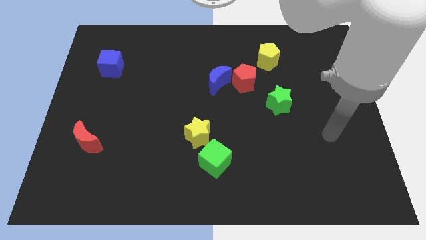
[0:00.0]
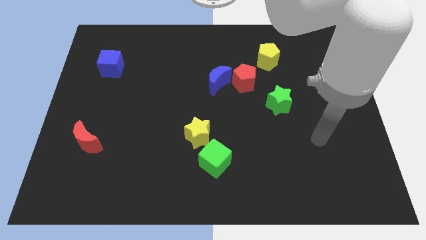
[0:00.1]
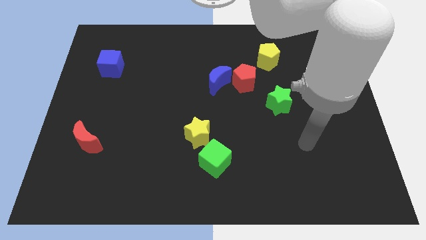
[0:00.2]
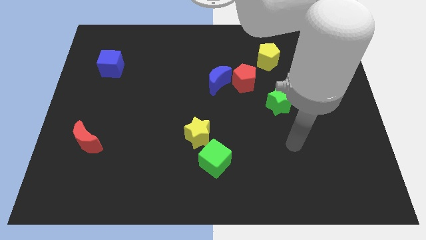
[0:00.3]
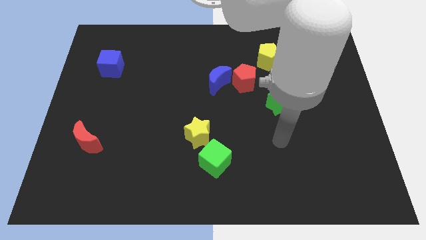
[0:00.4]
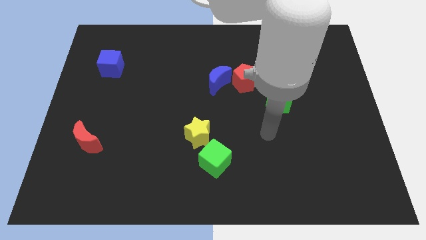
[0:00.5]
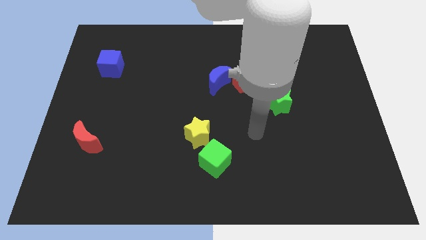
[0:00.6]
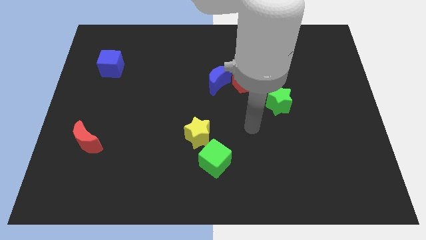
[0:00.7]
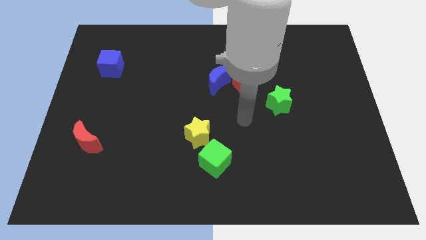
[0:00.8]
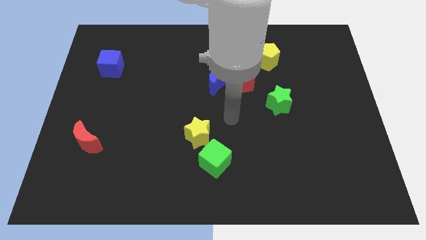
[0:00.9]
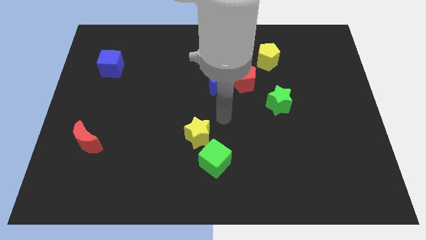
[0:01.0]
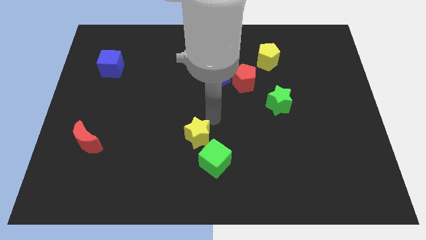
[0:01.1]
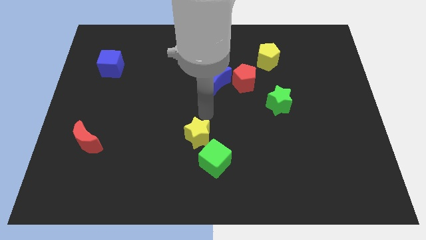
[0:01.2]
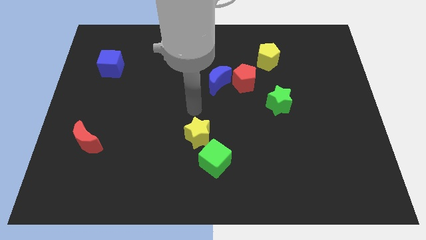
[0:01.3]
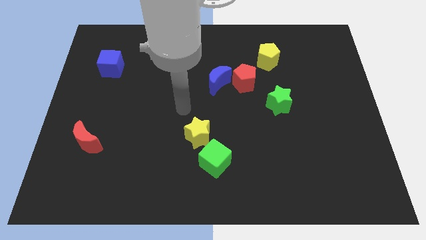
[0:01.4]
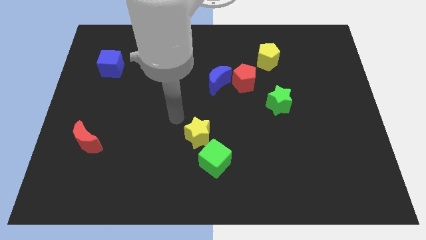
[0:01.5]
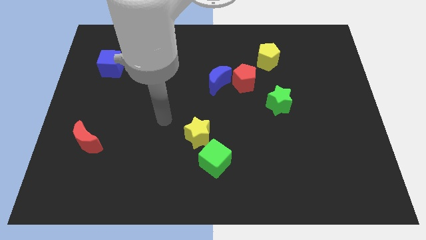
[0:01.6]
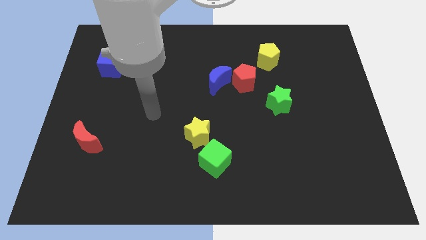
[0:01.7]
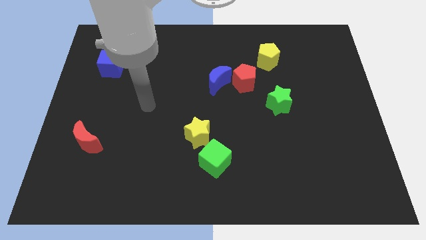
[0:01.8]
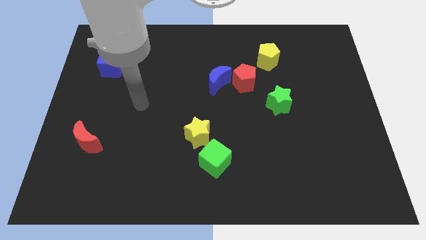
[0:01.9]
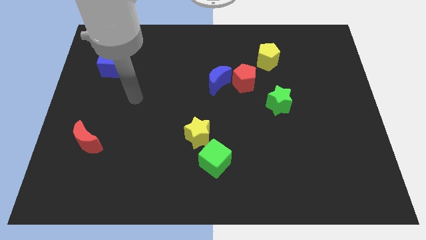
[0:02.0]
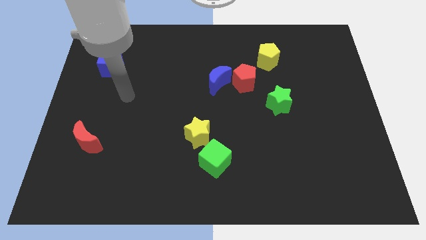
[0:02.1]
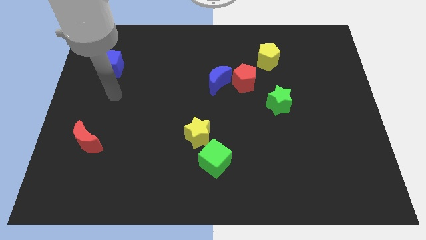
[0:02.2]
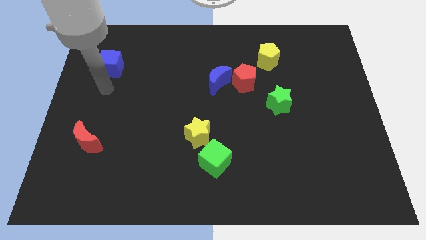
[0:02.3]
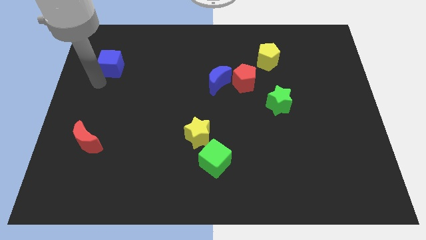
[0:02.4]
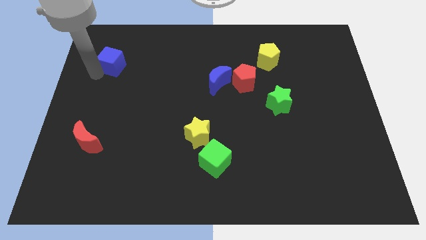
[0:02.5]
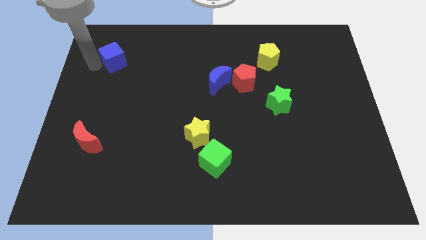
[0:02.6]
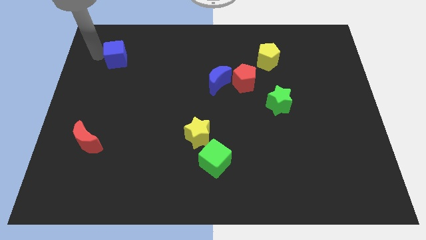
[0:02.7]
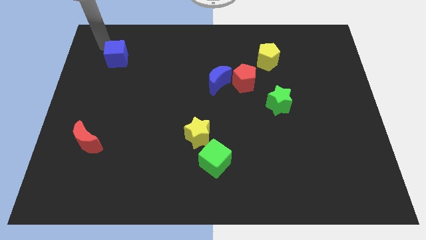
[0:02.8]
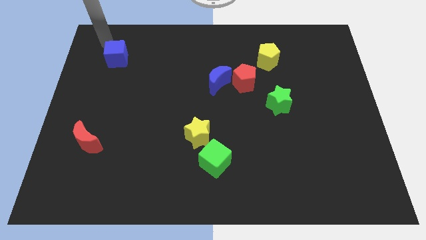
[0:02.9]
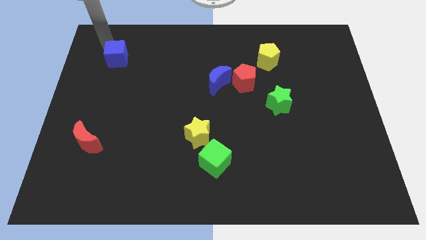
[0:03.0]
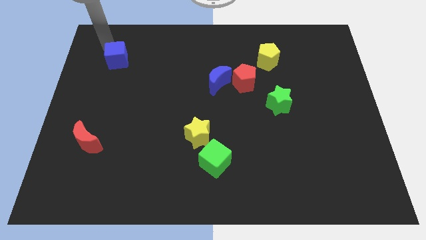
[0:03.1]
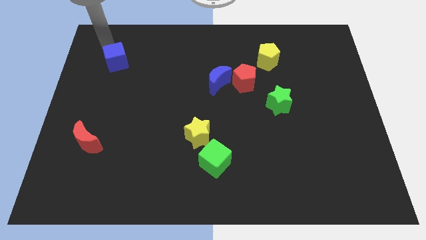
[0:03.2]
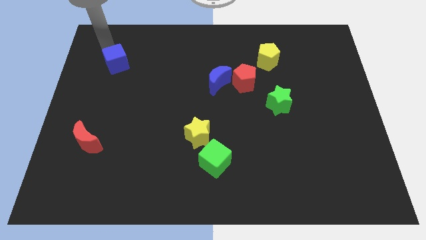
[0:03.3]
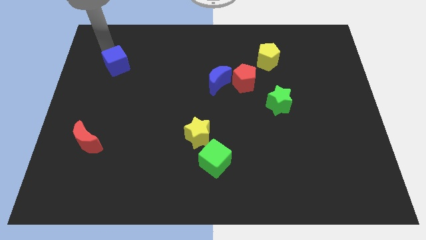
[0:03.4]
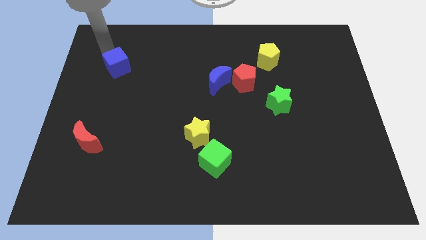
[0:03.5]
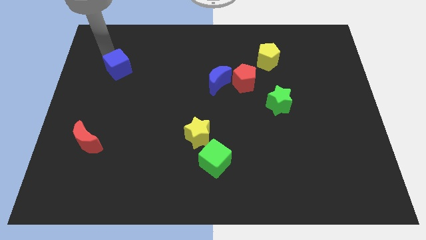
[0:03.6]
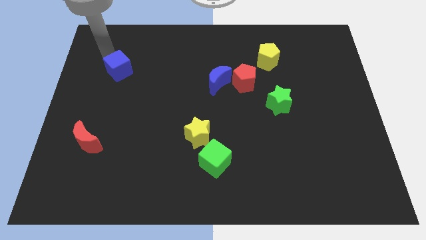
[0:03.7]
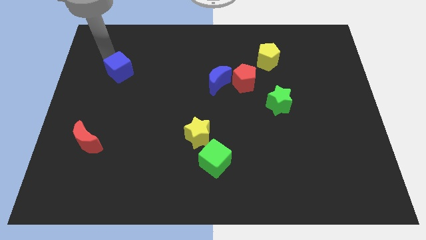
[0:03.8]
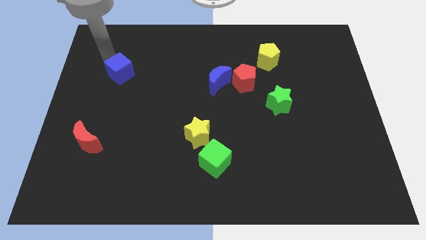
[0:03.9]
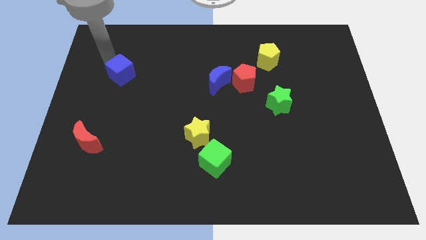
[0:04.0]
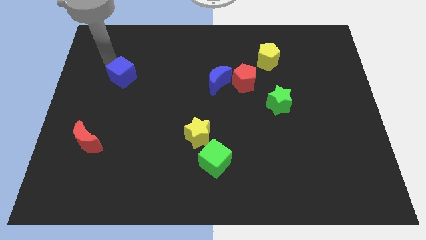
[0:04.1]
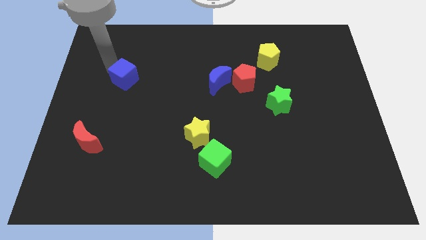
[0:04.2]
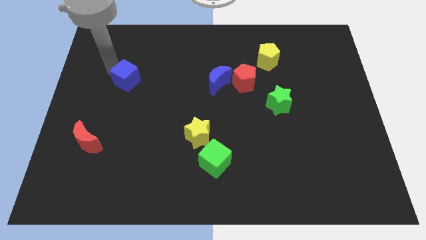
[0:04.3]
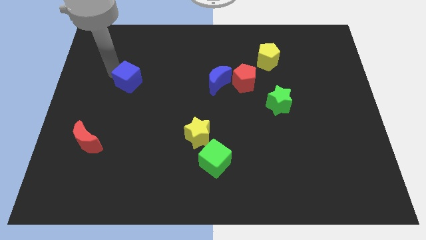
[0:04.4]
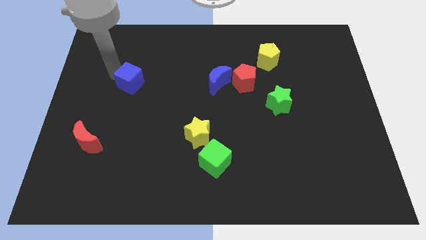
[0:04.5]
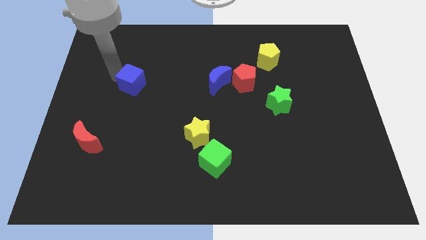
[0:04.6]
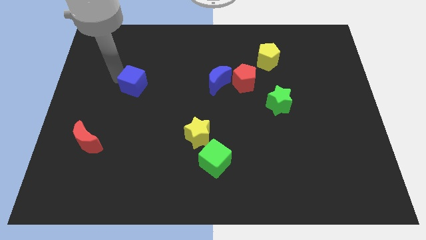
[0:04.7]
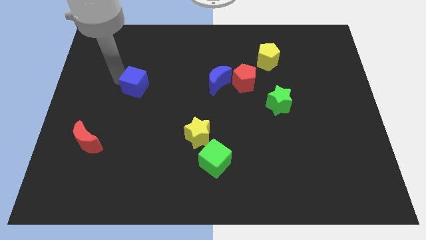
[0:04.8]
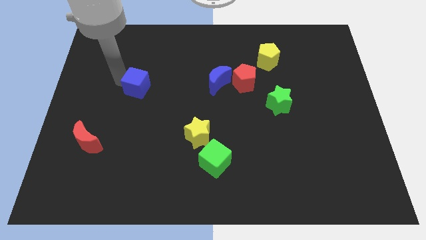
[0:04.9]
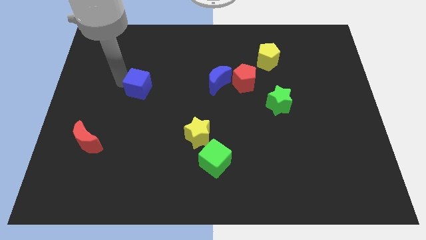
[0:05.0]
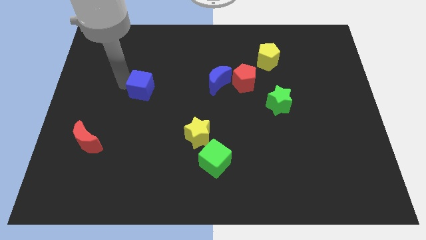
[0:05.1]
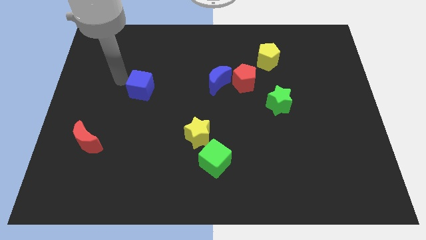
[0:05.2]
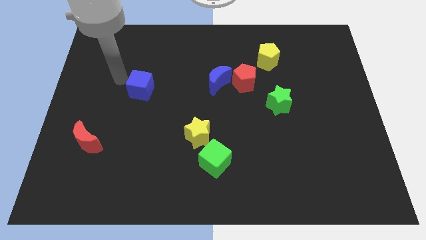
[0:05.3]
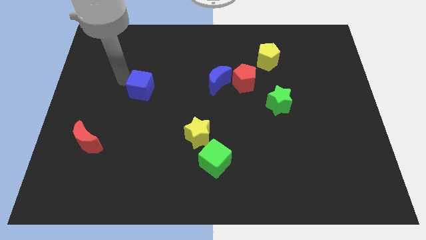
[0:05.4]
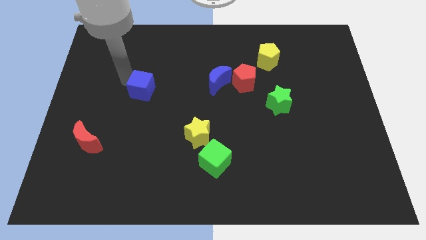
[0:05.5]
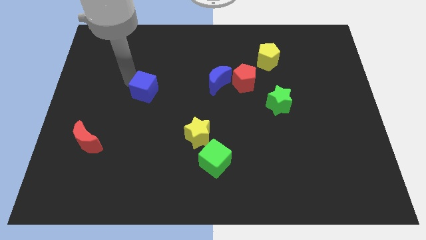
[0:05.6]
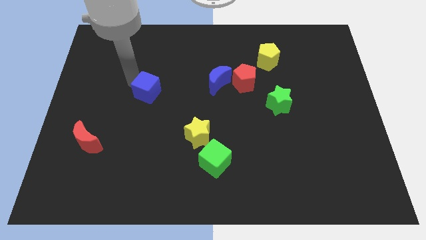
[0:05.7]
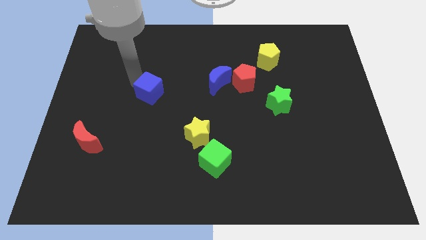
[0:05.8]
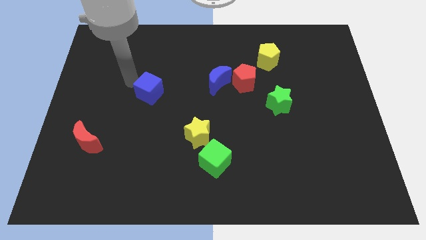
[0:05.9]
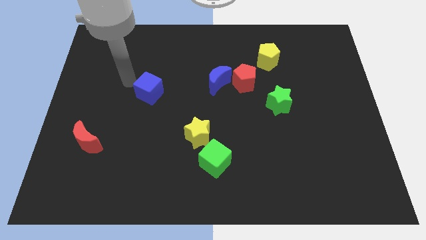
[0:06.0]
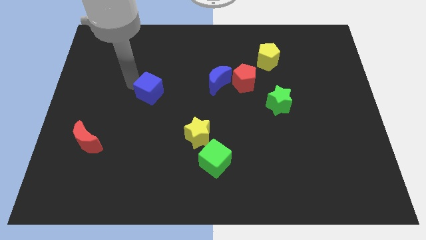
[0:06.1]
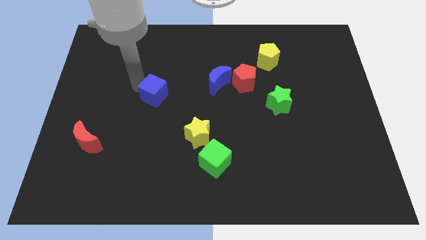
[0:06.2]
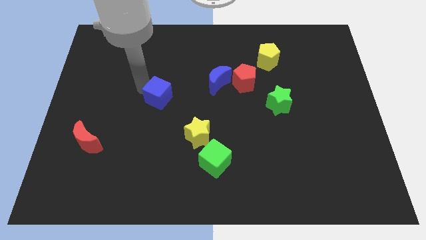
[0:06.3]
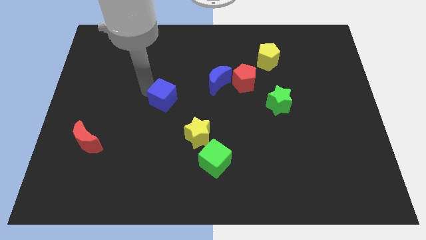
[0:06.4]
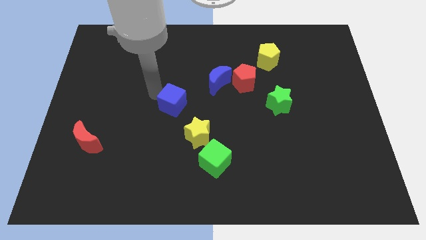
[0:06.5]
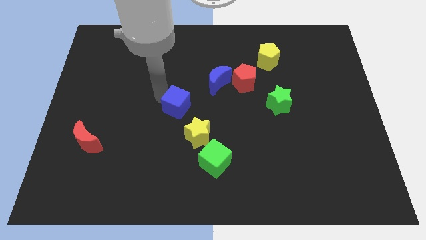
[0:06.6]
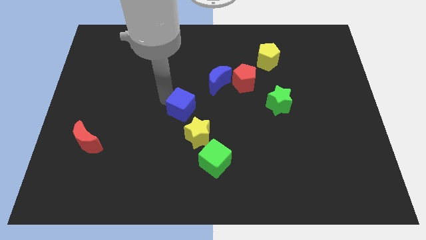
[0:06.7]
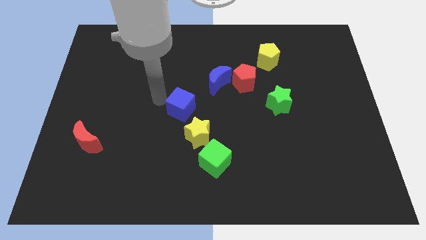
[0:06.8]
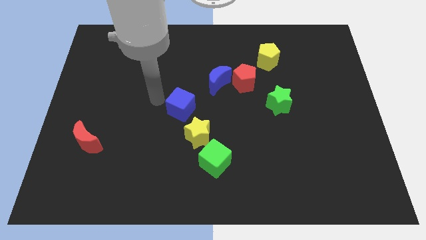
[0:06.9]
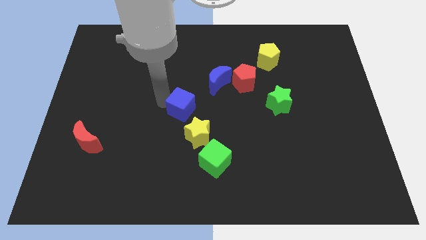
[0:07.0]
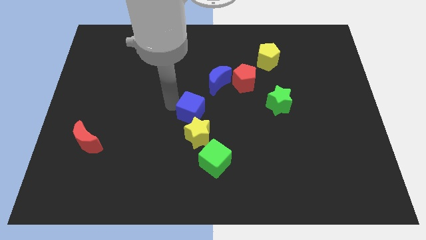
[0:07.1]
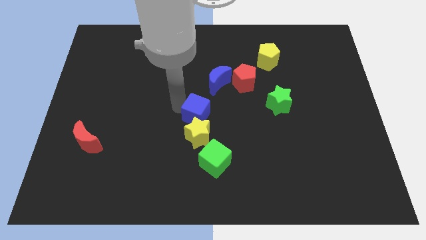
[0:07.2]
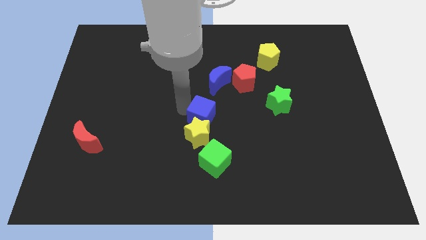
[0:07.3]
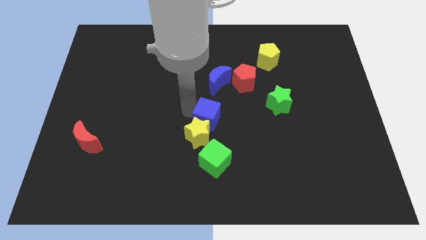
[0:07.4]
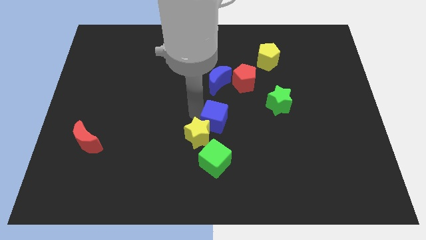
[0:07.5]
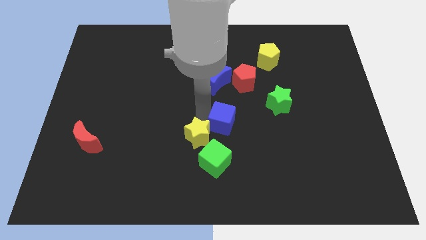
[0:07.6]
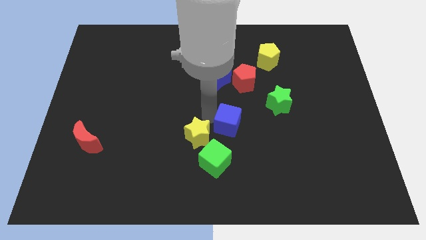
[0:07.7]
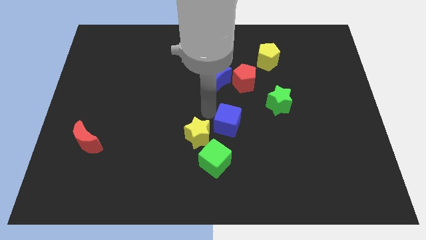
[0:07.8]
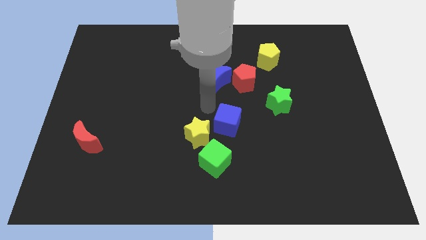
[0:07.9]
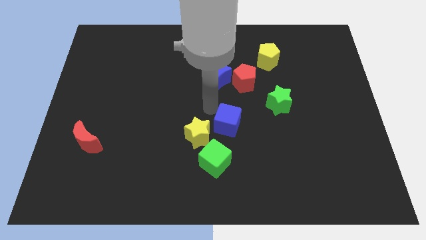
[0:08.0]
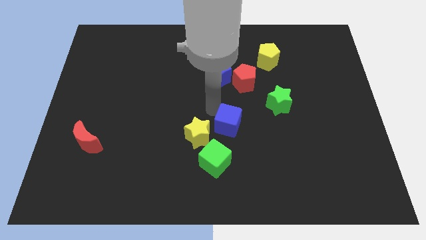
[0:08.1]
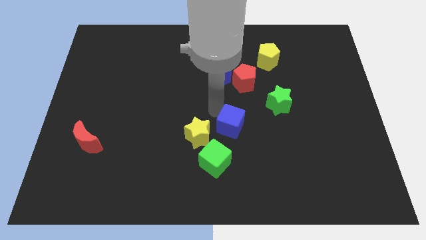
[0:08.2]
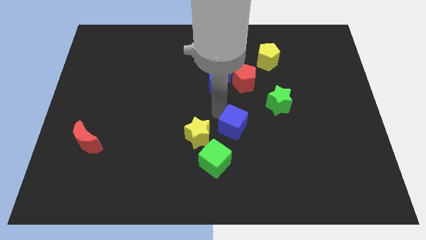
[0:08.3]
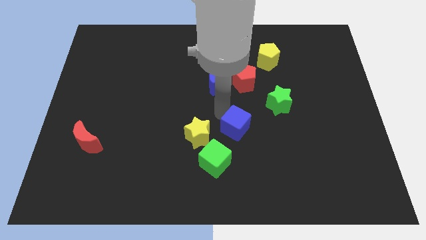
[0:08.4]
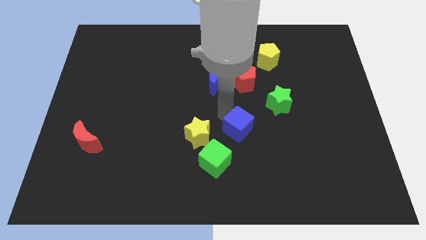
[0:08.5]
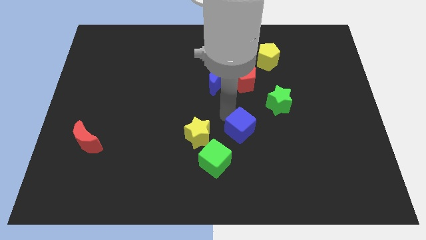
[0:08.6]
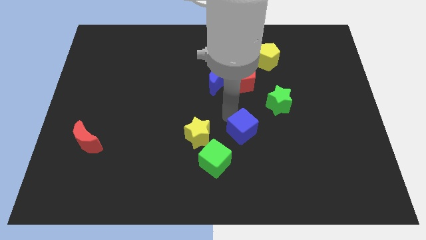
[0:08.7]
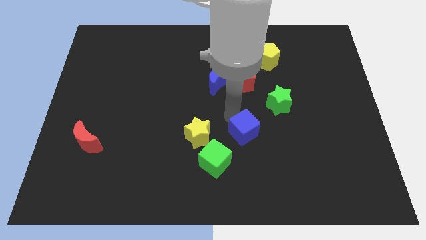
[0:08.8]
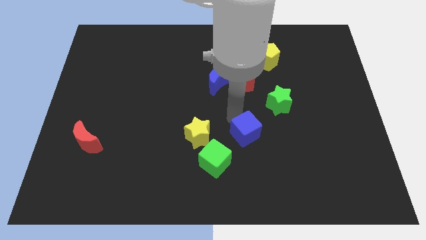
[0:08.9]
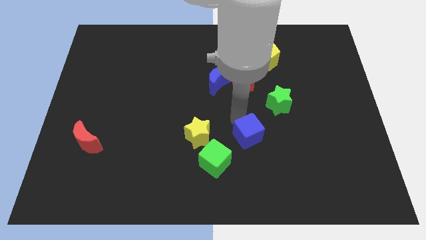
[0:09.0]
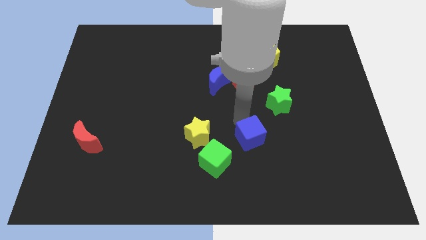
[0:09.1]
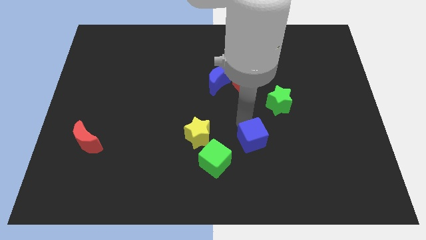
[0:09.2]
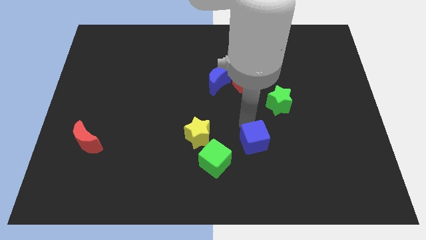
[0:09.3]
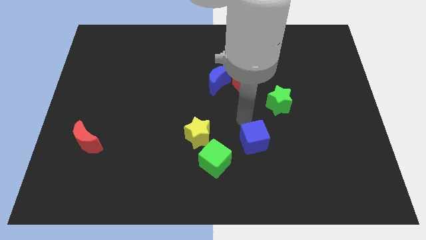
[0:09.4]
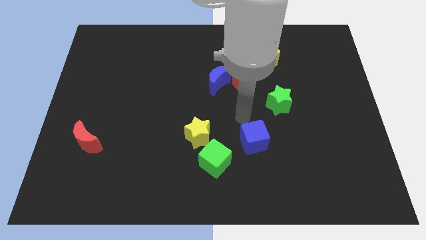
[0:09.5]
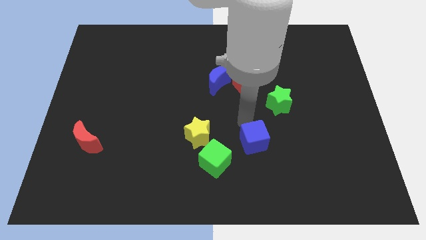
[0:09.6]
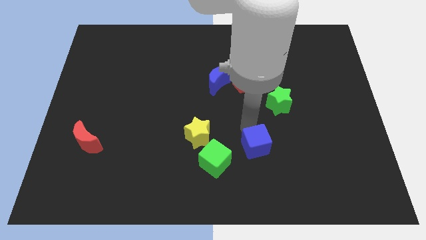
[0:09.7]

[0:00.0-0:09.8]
move the blue cube to the right of the green cube
